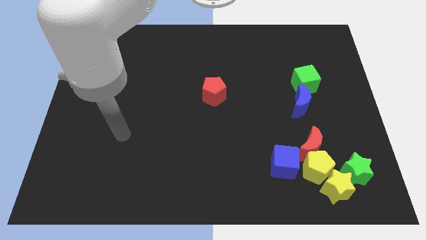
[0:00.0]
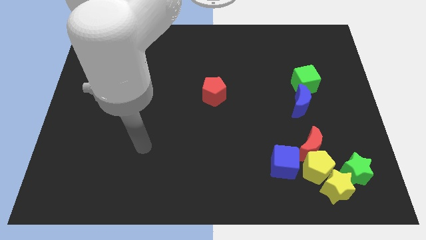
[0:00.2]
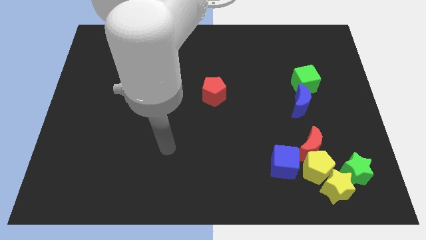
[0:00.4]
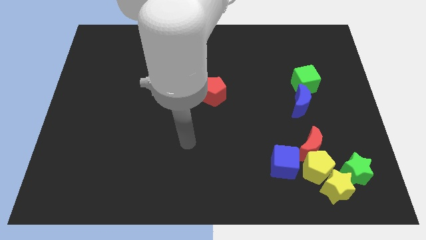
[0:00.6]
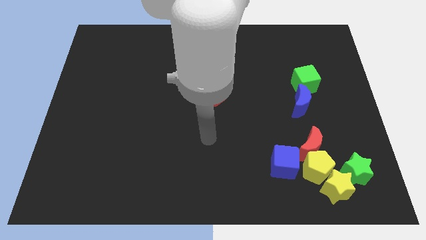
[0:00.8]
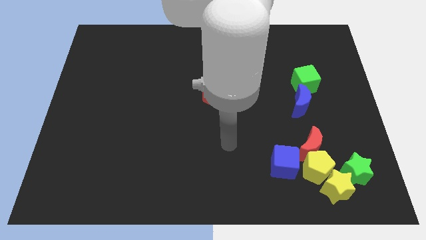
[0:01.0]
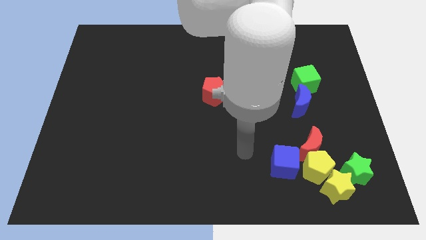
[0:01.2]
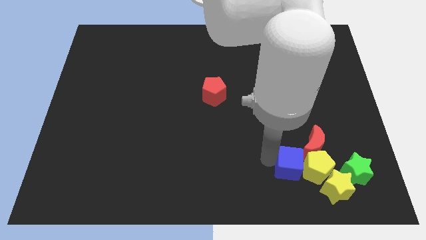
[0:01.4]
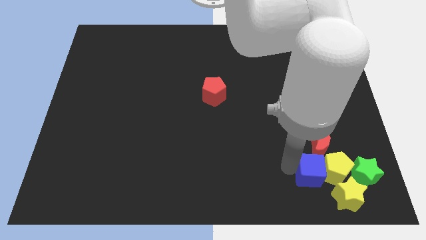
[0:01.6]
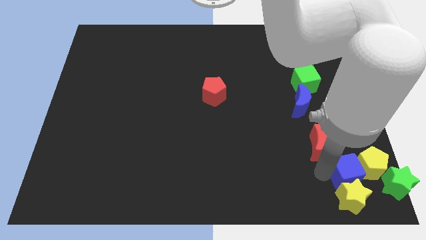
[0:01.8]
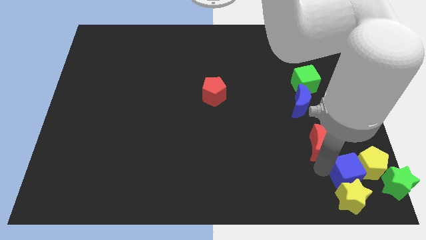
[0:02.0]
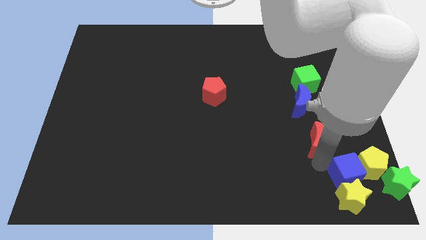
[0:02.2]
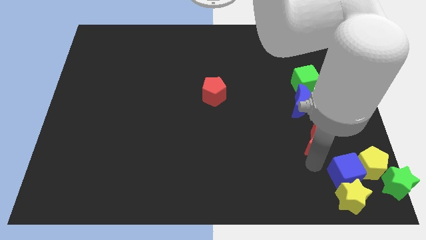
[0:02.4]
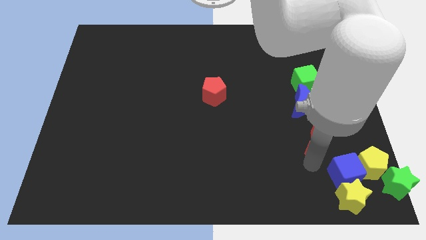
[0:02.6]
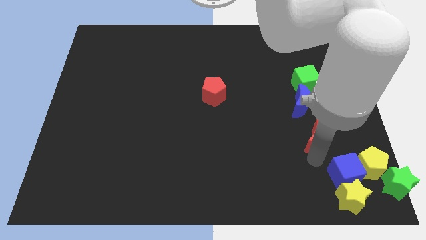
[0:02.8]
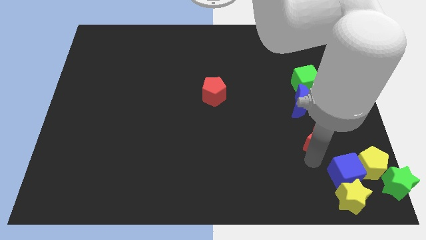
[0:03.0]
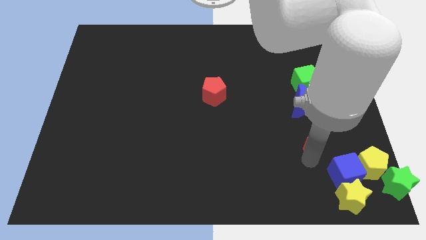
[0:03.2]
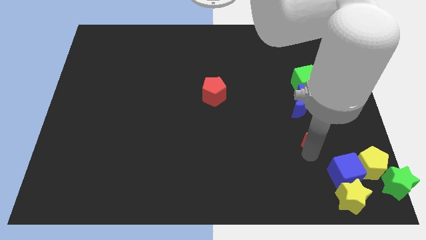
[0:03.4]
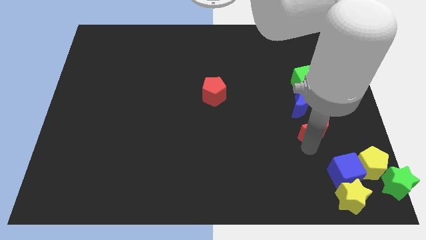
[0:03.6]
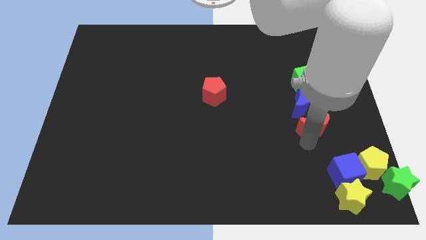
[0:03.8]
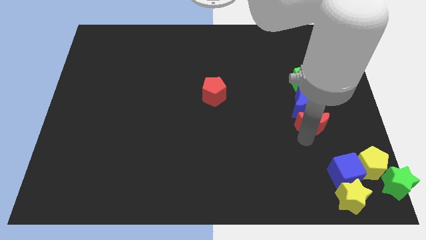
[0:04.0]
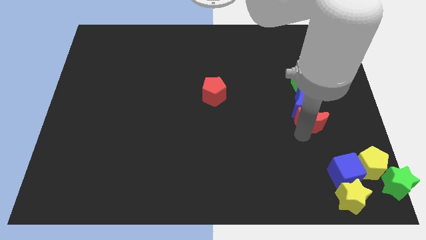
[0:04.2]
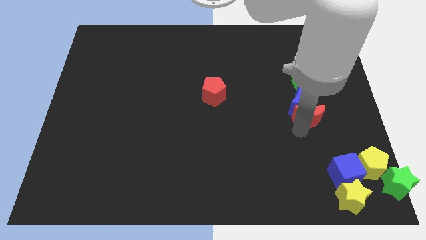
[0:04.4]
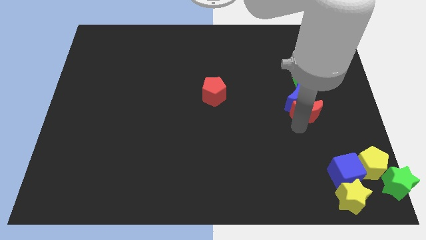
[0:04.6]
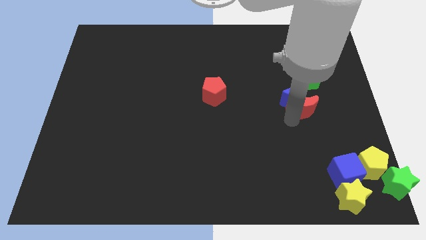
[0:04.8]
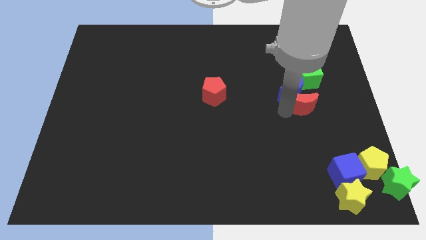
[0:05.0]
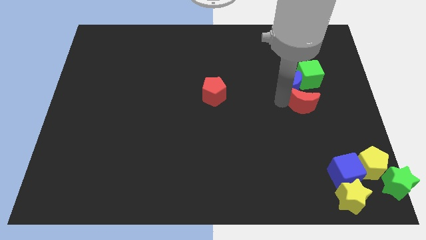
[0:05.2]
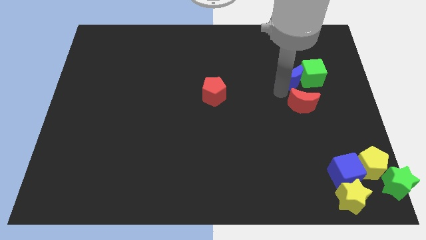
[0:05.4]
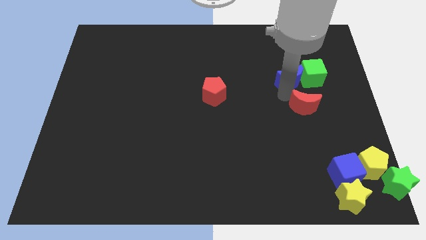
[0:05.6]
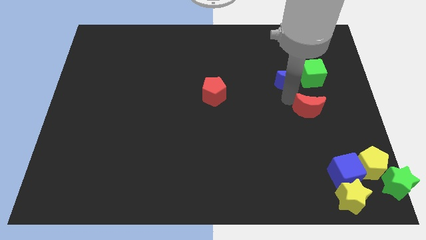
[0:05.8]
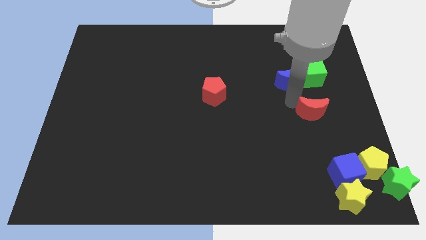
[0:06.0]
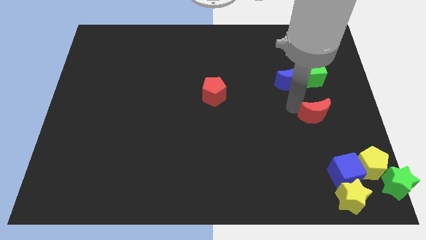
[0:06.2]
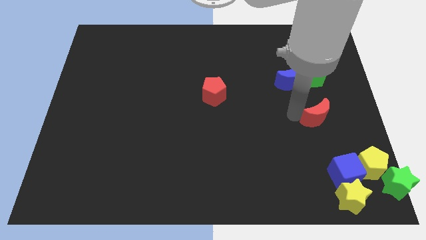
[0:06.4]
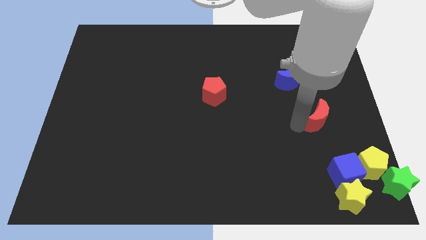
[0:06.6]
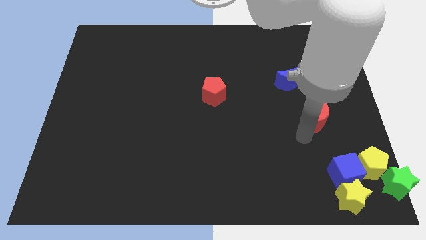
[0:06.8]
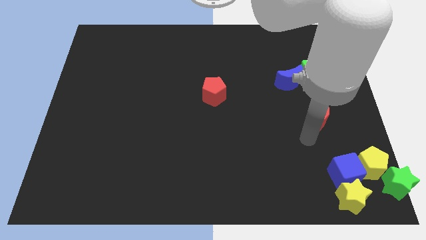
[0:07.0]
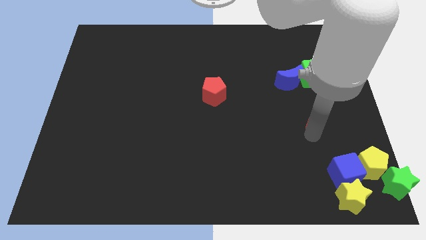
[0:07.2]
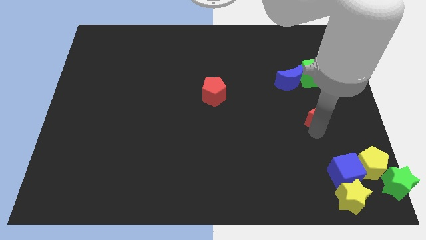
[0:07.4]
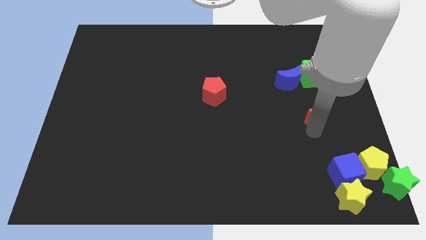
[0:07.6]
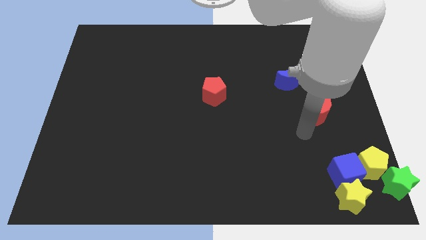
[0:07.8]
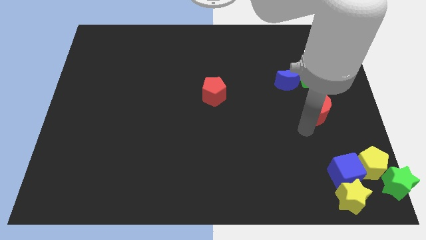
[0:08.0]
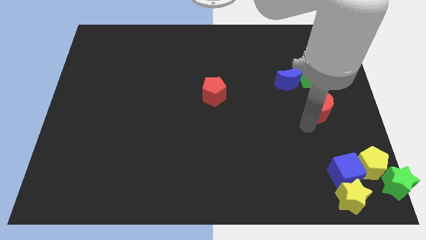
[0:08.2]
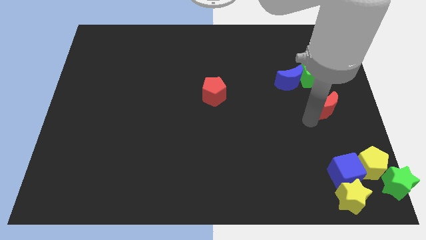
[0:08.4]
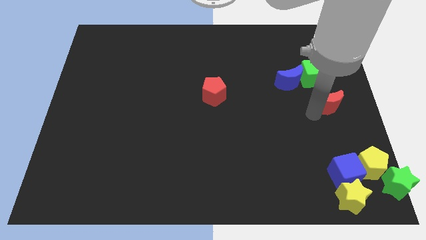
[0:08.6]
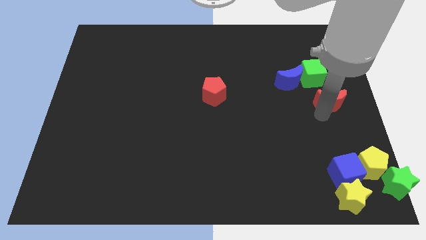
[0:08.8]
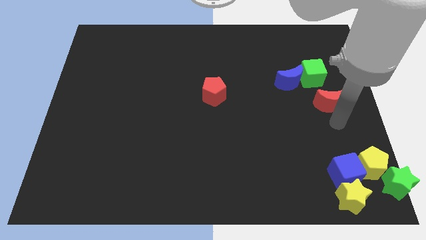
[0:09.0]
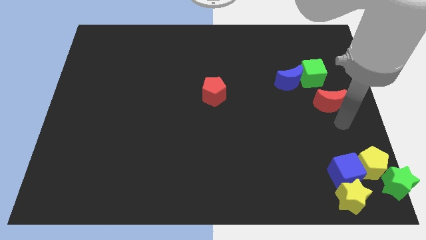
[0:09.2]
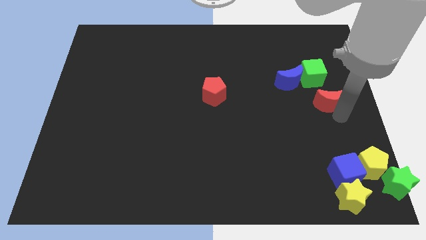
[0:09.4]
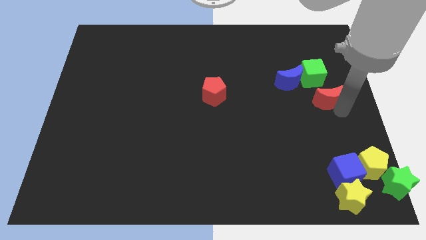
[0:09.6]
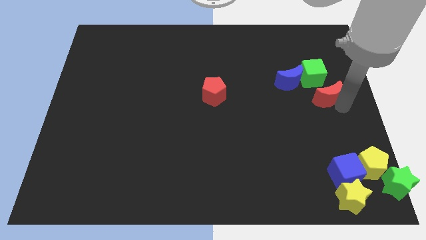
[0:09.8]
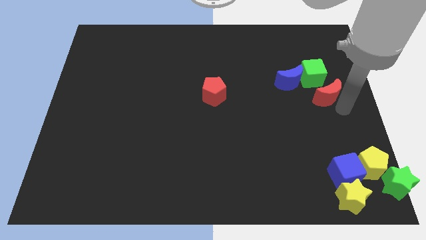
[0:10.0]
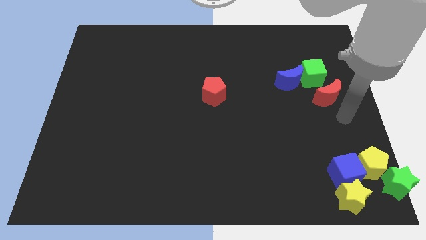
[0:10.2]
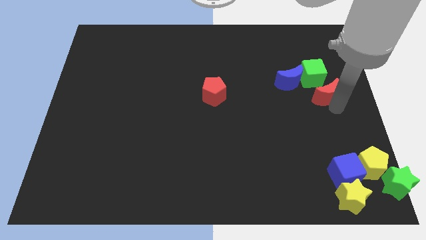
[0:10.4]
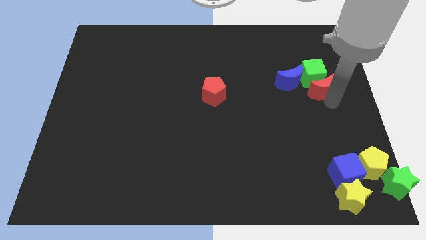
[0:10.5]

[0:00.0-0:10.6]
slide the red moon next to the green cube

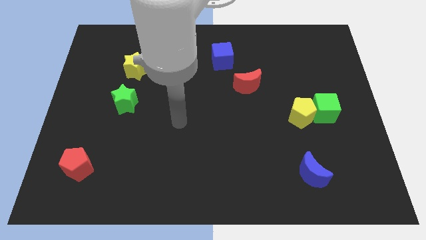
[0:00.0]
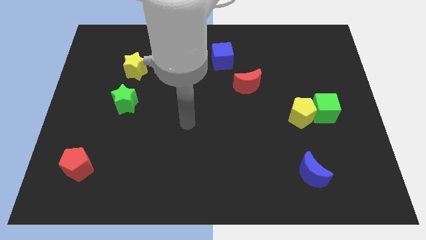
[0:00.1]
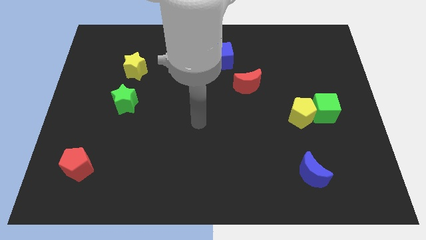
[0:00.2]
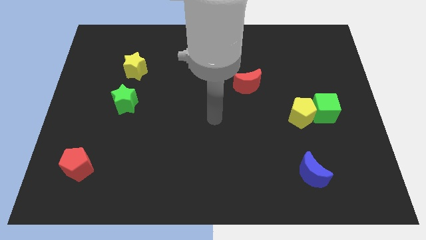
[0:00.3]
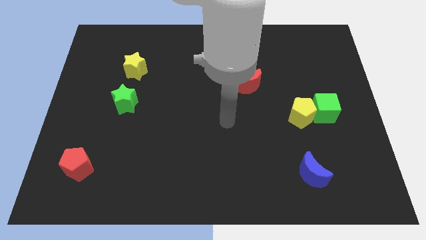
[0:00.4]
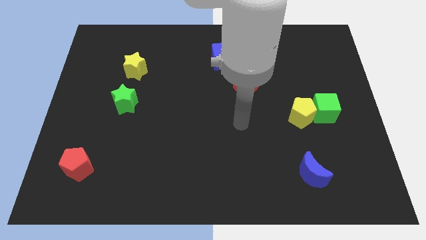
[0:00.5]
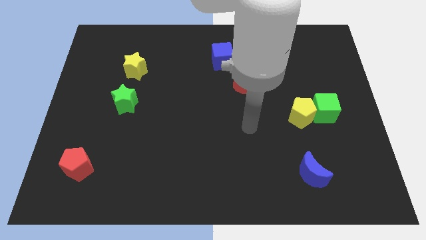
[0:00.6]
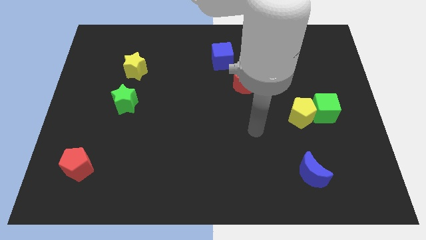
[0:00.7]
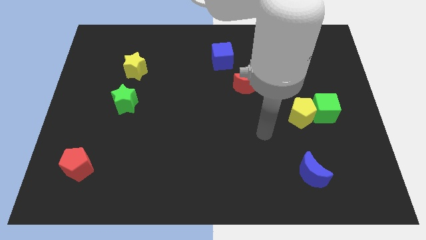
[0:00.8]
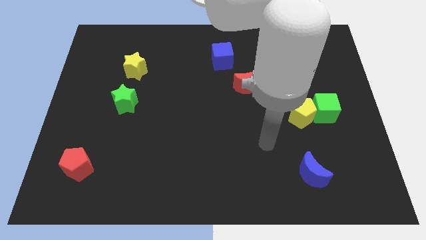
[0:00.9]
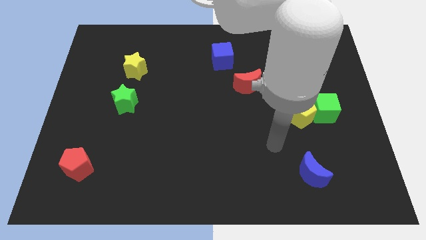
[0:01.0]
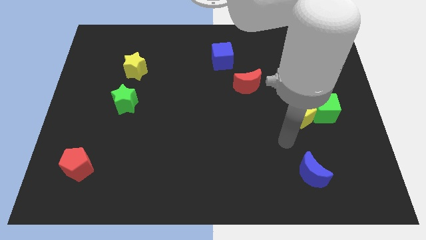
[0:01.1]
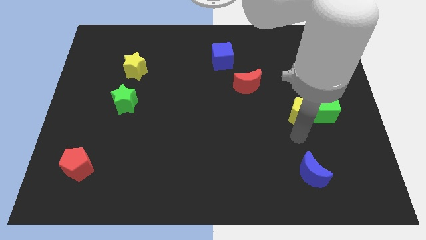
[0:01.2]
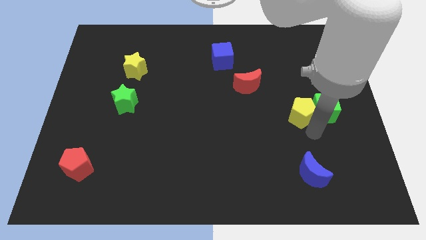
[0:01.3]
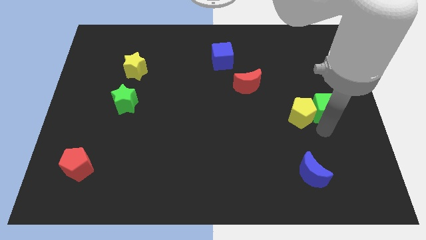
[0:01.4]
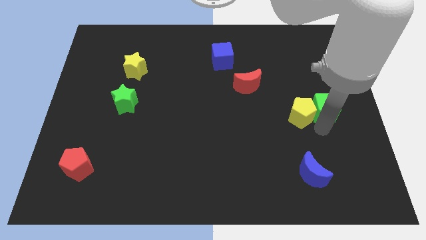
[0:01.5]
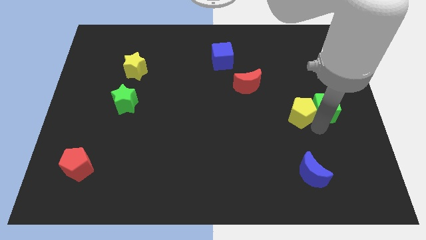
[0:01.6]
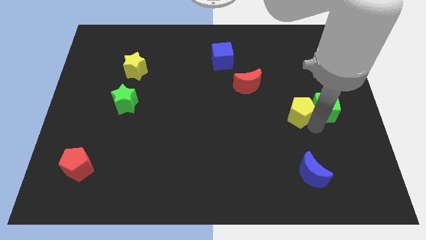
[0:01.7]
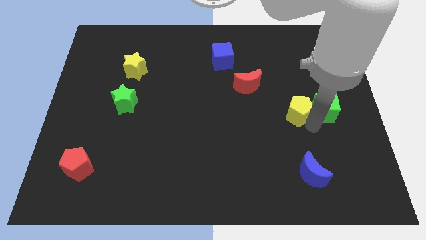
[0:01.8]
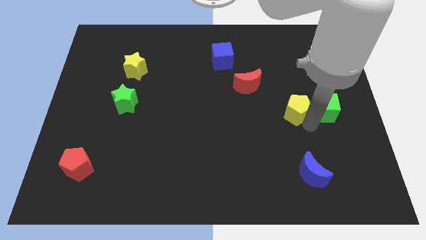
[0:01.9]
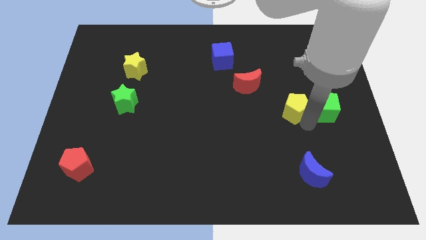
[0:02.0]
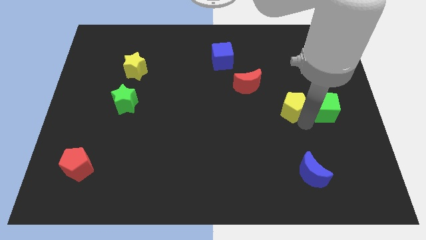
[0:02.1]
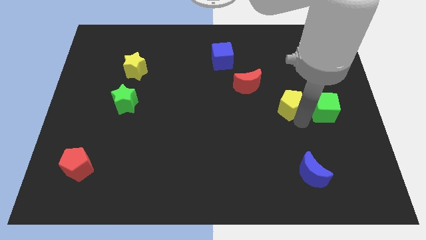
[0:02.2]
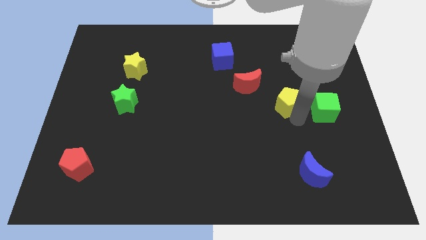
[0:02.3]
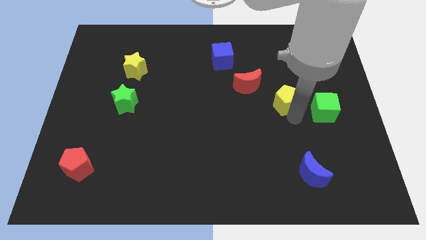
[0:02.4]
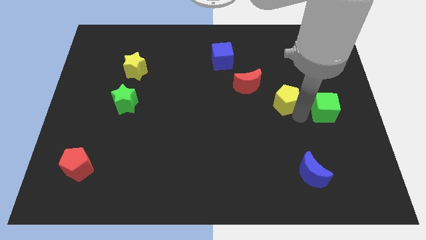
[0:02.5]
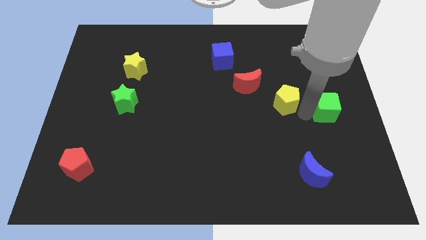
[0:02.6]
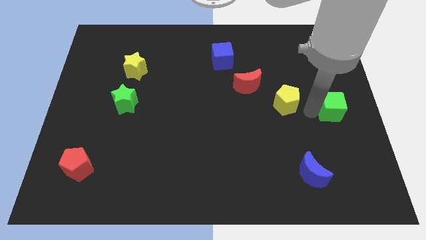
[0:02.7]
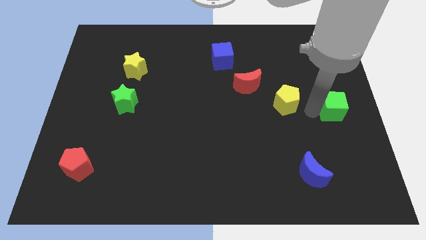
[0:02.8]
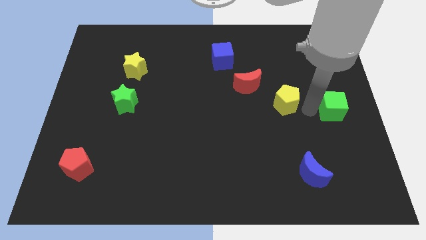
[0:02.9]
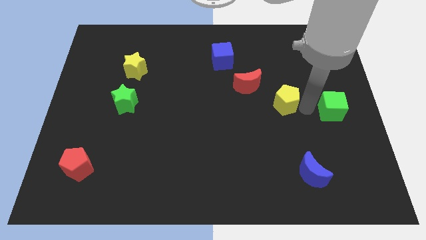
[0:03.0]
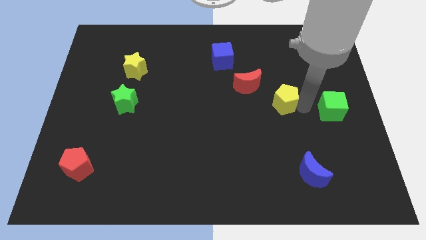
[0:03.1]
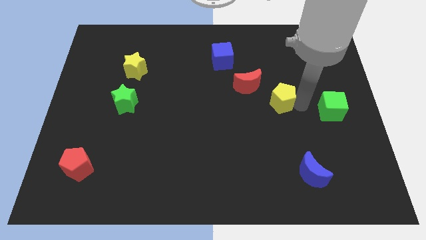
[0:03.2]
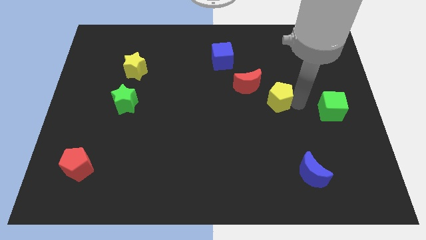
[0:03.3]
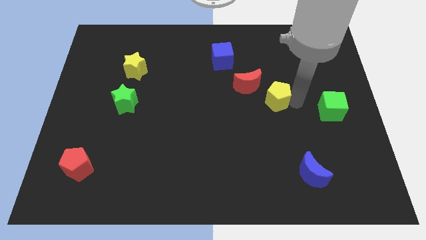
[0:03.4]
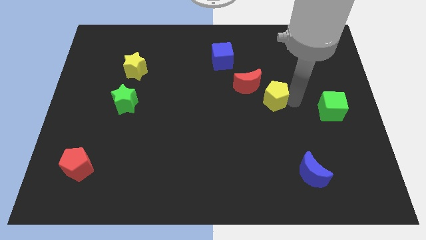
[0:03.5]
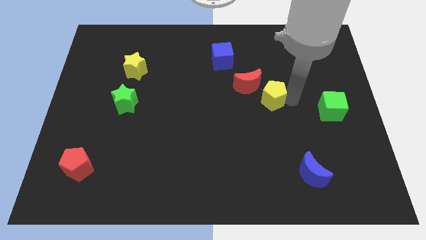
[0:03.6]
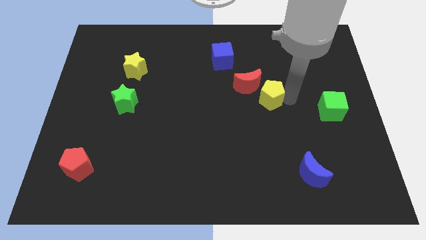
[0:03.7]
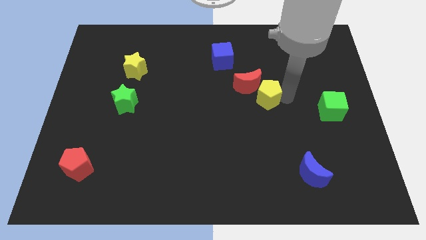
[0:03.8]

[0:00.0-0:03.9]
push the yellow pentagon close to the red moon
